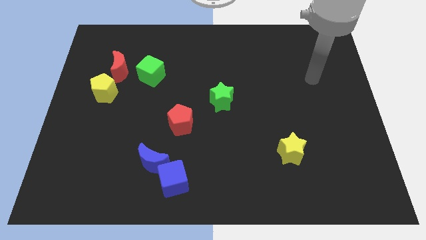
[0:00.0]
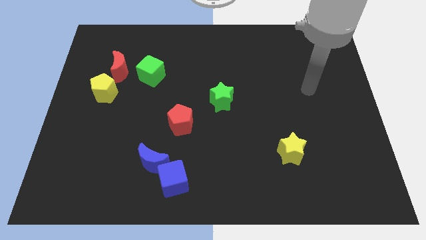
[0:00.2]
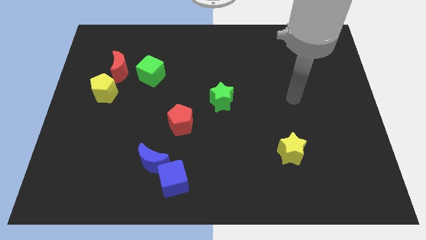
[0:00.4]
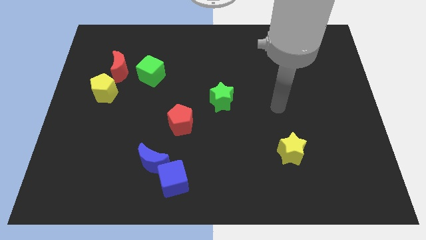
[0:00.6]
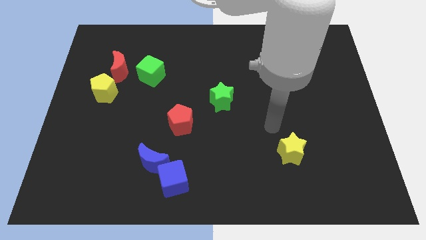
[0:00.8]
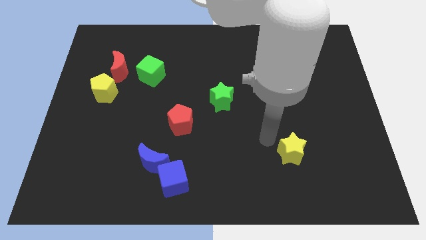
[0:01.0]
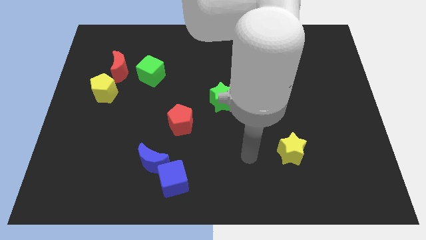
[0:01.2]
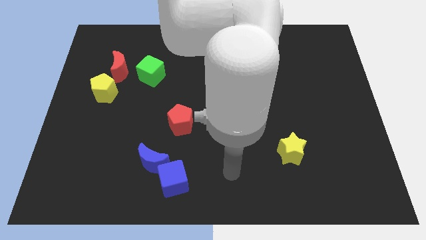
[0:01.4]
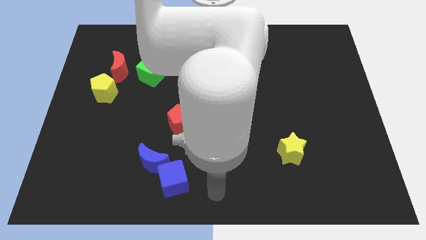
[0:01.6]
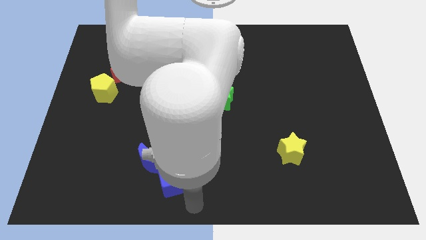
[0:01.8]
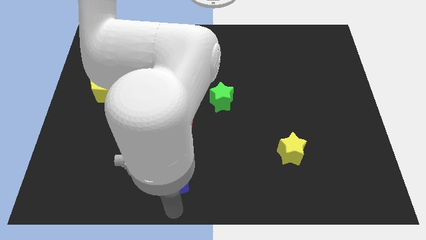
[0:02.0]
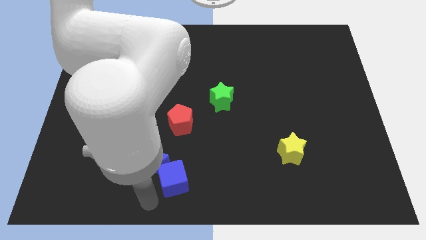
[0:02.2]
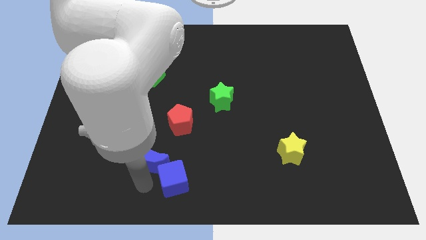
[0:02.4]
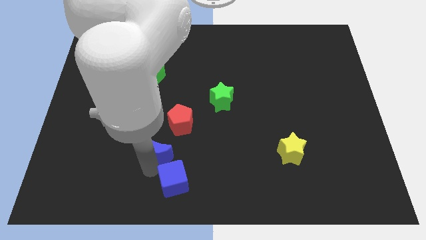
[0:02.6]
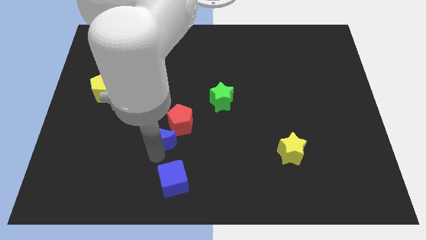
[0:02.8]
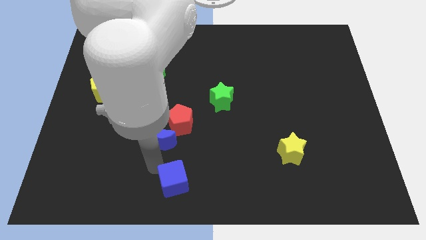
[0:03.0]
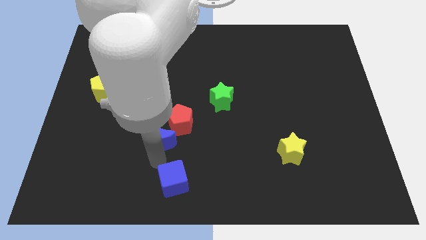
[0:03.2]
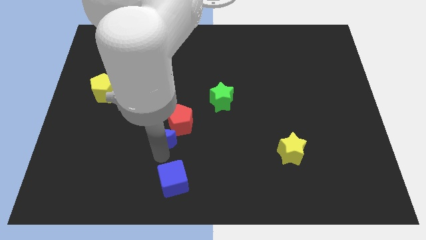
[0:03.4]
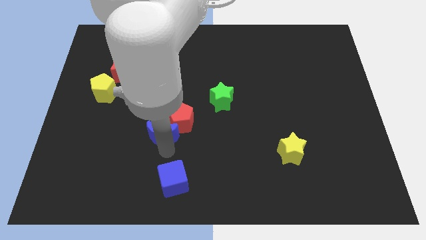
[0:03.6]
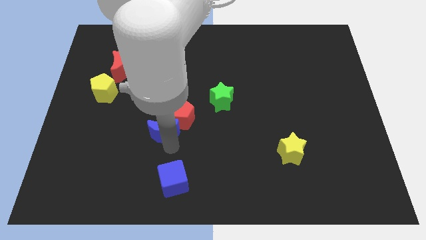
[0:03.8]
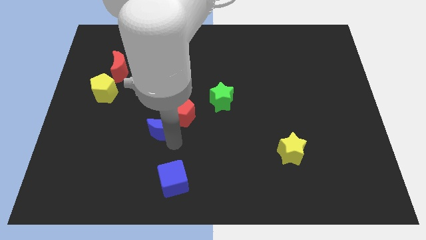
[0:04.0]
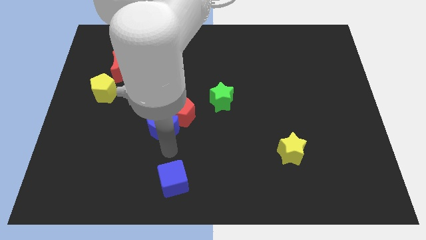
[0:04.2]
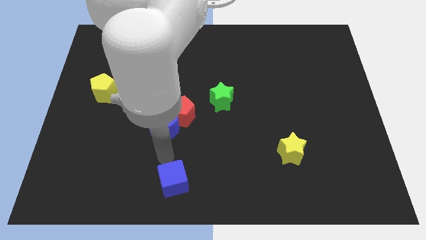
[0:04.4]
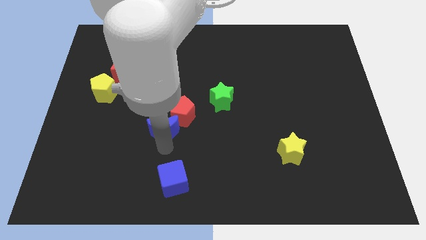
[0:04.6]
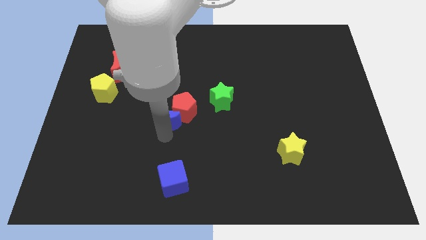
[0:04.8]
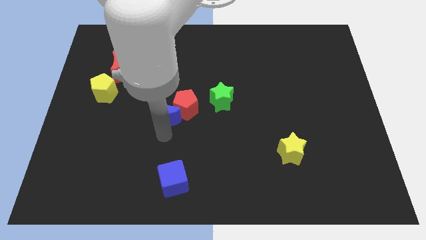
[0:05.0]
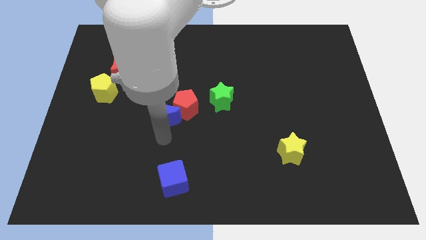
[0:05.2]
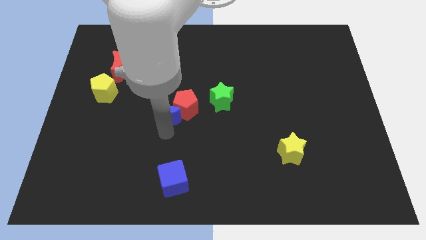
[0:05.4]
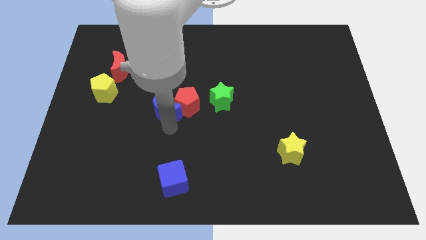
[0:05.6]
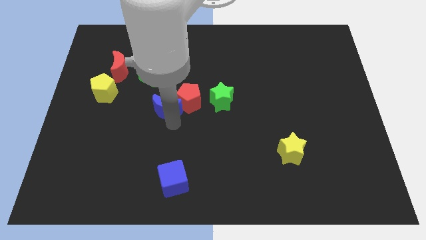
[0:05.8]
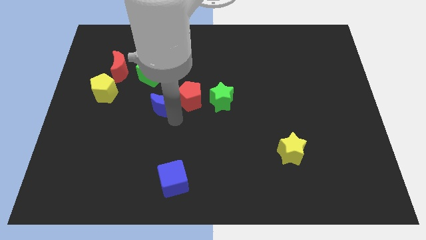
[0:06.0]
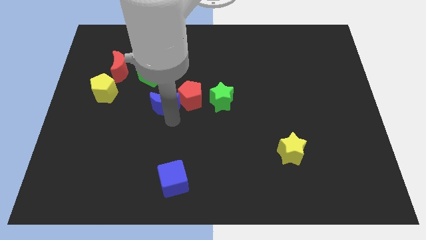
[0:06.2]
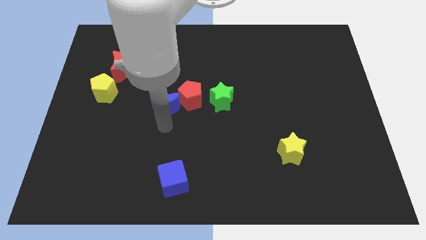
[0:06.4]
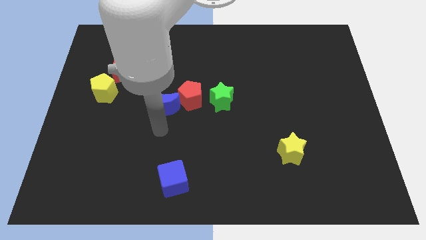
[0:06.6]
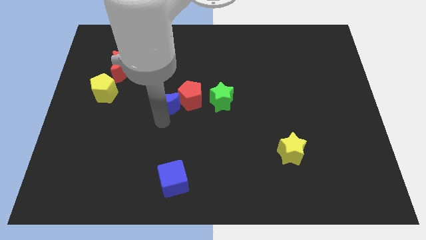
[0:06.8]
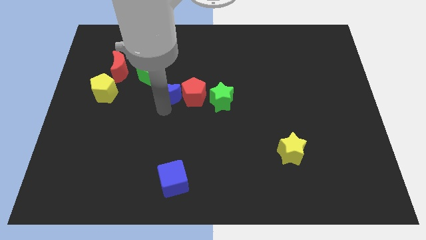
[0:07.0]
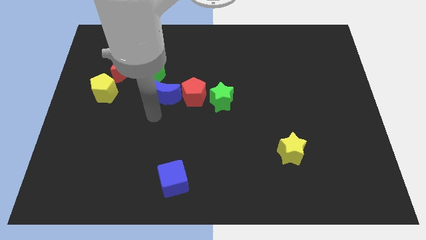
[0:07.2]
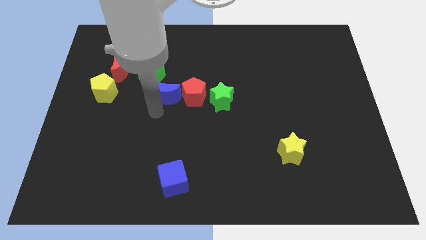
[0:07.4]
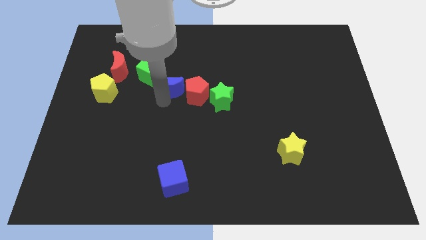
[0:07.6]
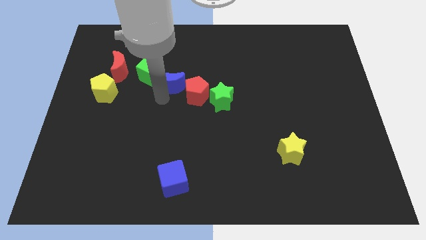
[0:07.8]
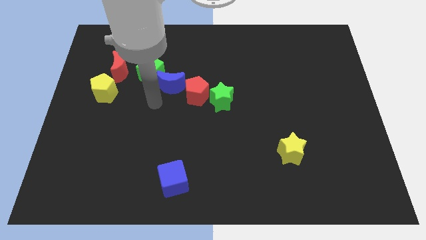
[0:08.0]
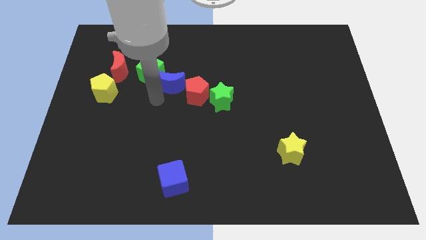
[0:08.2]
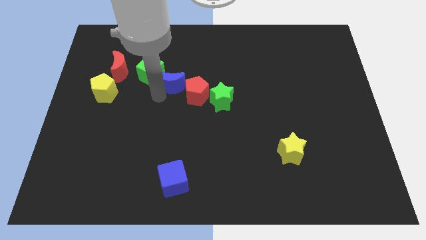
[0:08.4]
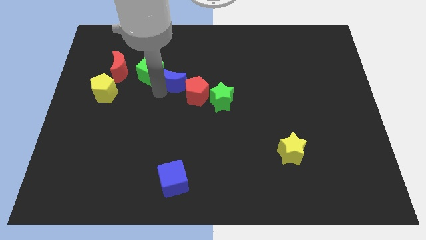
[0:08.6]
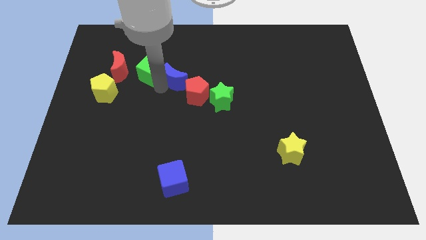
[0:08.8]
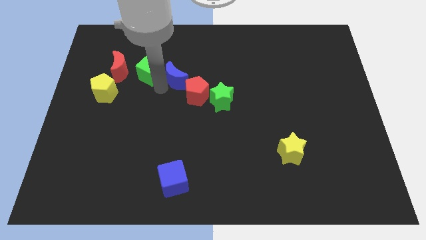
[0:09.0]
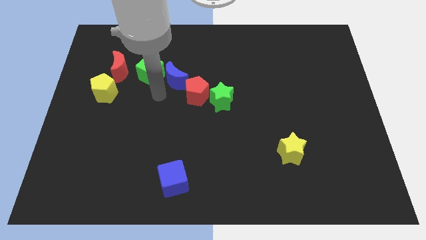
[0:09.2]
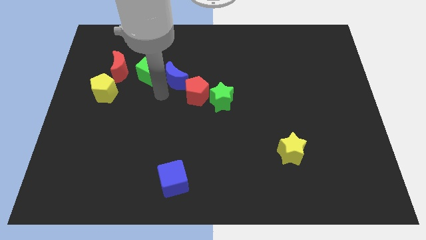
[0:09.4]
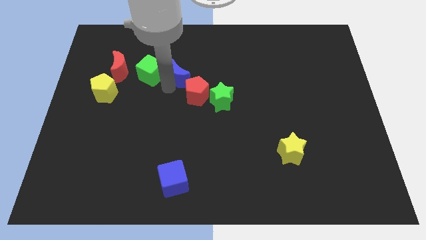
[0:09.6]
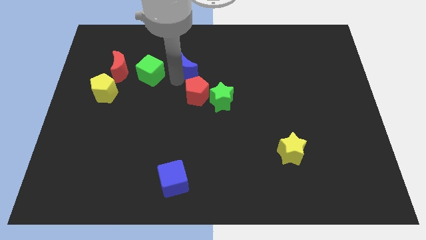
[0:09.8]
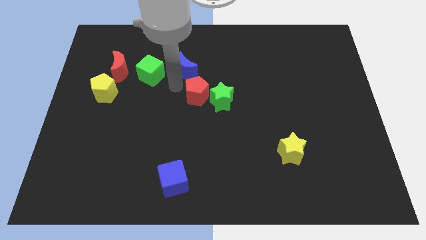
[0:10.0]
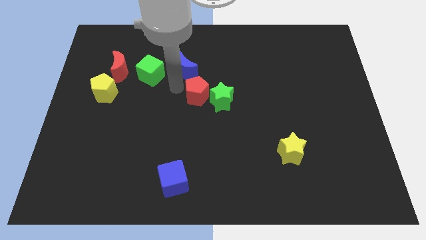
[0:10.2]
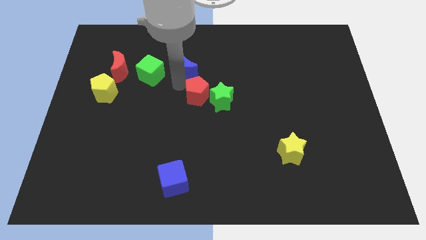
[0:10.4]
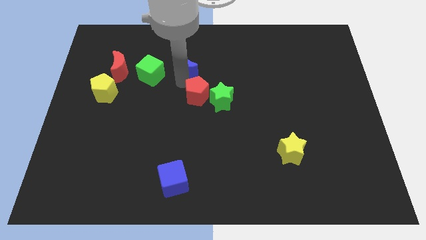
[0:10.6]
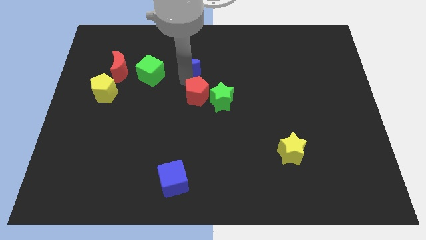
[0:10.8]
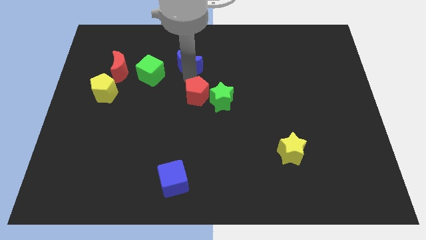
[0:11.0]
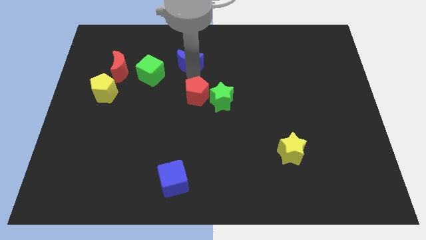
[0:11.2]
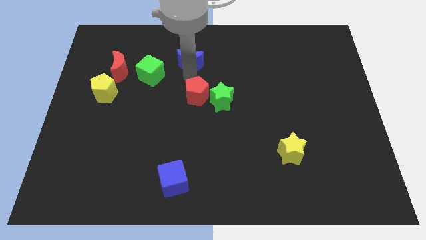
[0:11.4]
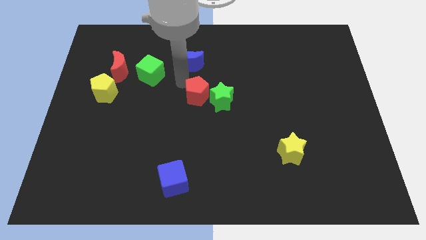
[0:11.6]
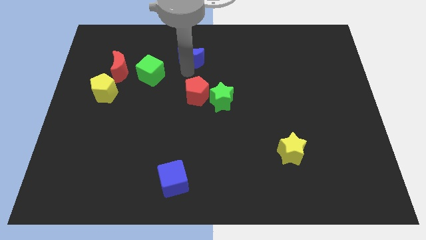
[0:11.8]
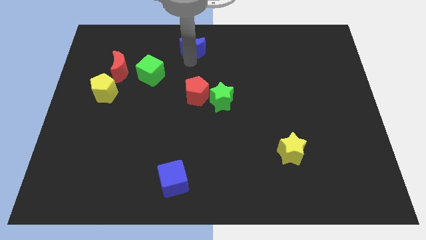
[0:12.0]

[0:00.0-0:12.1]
push the blue moon to the towards your base
